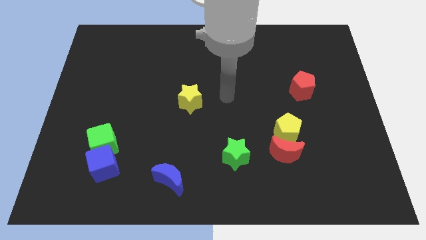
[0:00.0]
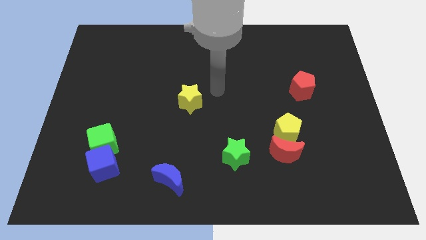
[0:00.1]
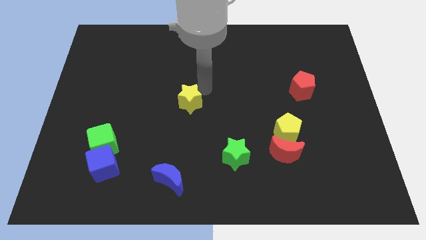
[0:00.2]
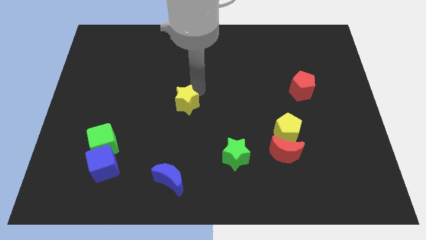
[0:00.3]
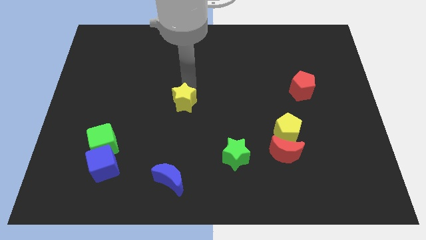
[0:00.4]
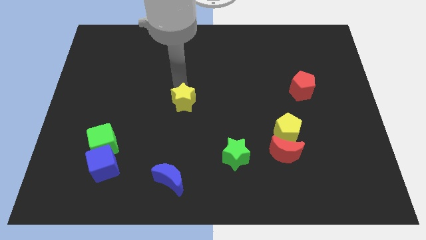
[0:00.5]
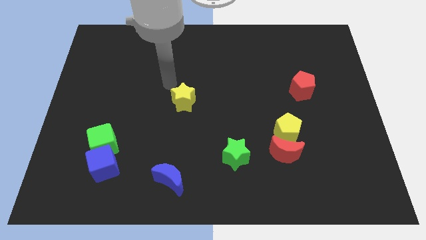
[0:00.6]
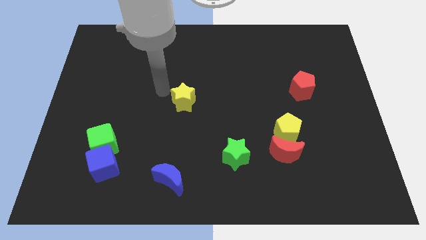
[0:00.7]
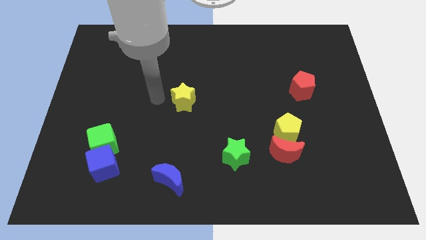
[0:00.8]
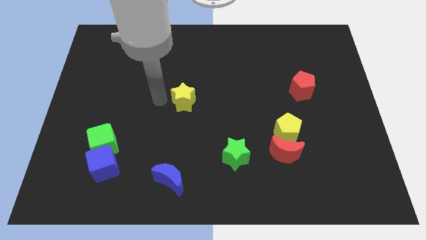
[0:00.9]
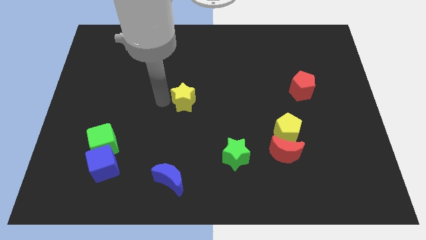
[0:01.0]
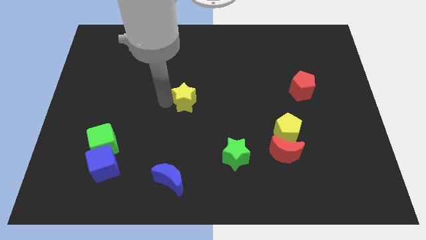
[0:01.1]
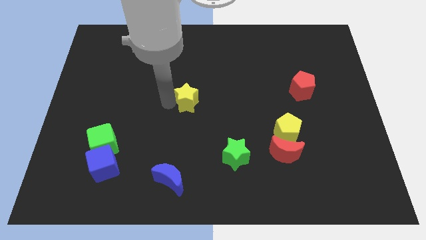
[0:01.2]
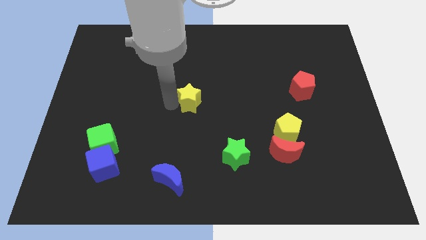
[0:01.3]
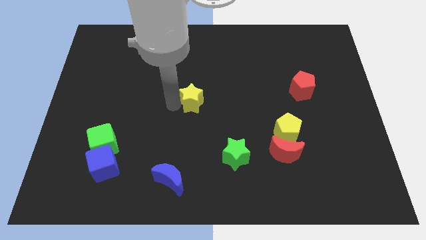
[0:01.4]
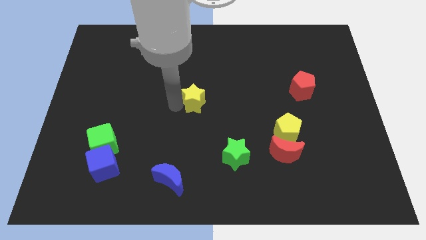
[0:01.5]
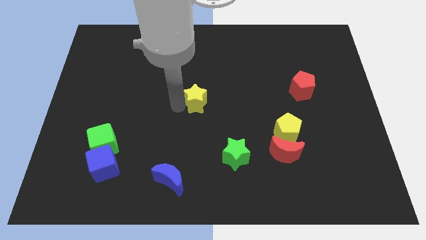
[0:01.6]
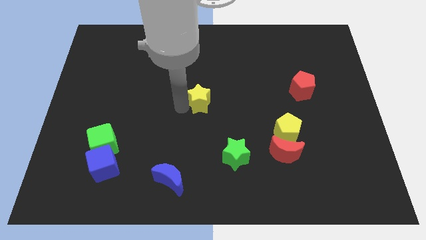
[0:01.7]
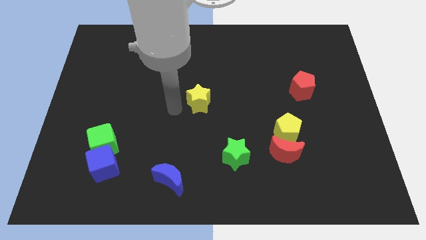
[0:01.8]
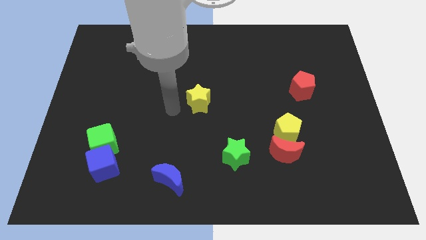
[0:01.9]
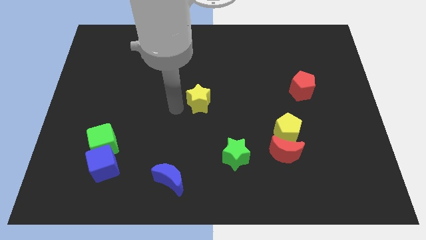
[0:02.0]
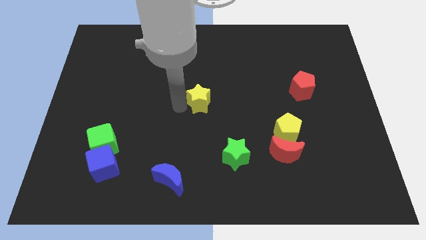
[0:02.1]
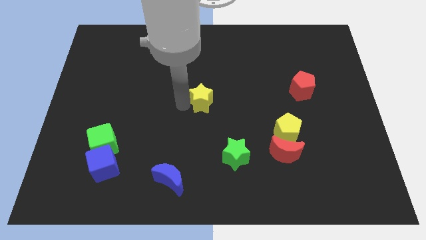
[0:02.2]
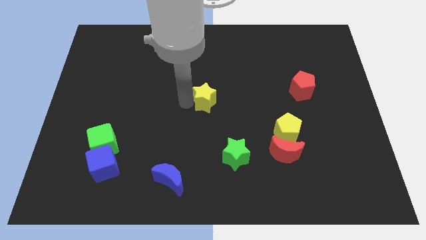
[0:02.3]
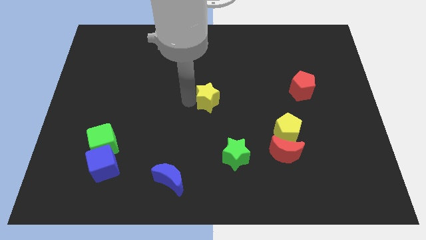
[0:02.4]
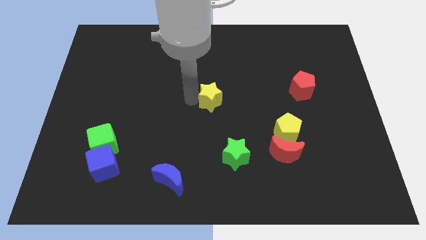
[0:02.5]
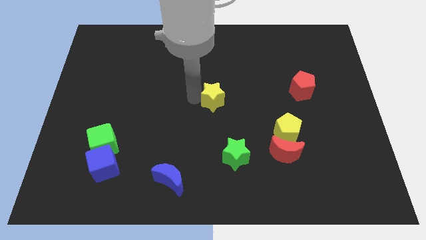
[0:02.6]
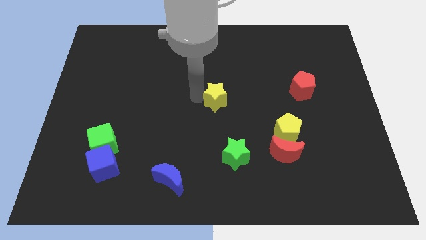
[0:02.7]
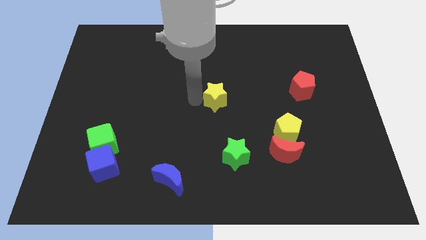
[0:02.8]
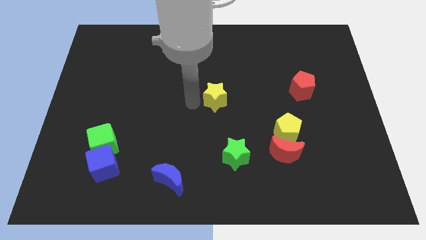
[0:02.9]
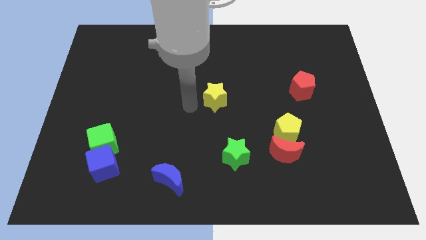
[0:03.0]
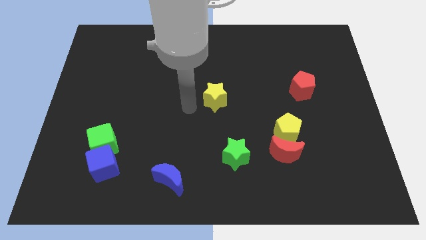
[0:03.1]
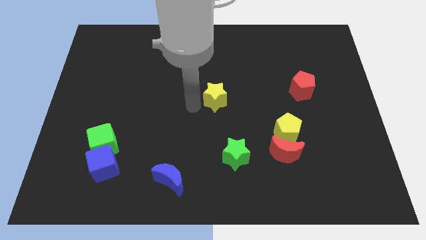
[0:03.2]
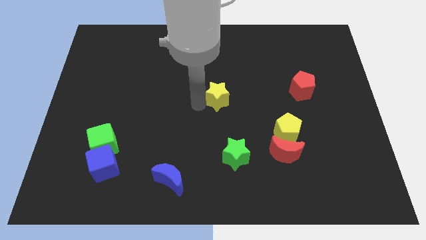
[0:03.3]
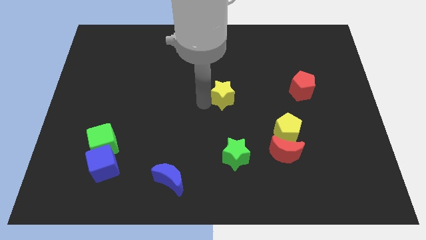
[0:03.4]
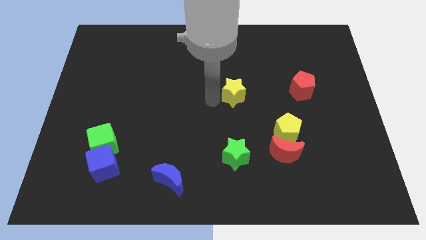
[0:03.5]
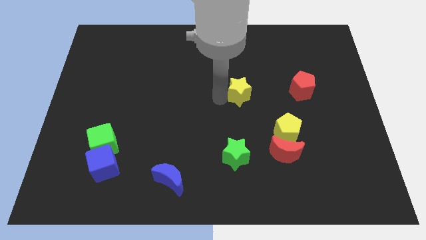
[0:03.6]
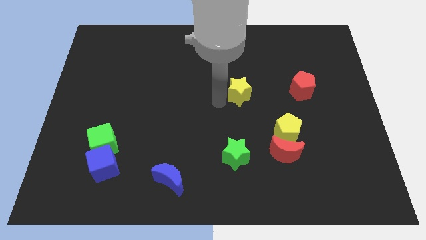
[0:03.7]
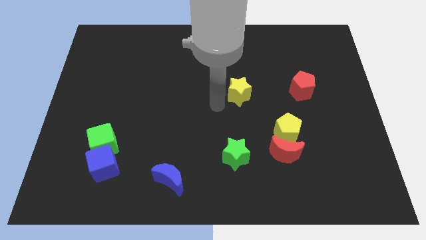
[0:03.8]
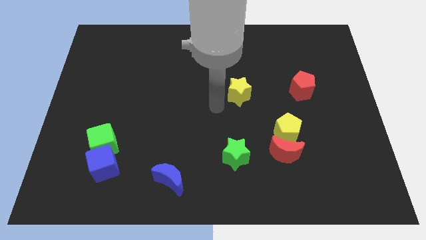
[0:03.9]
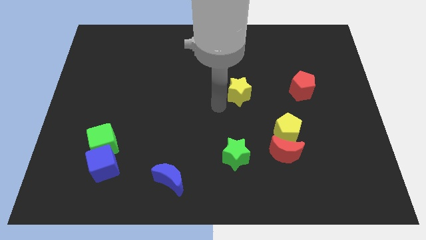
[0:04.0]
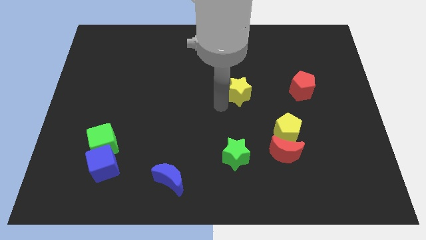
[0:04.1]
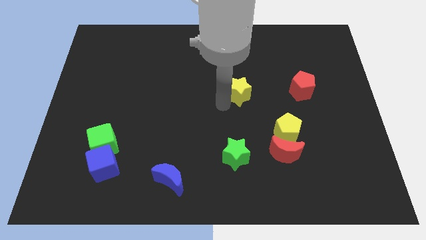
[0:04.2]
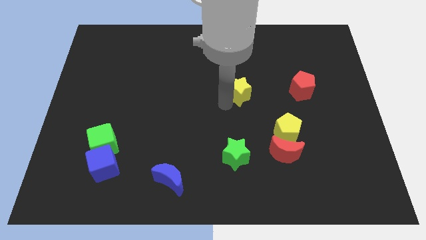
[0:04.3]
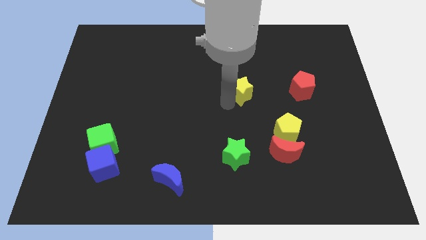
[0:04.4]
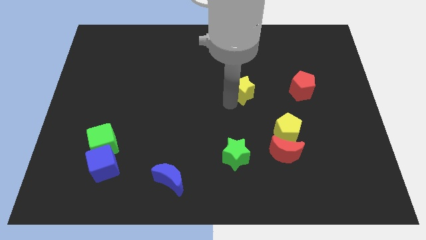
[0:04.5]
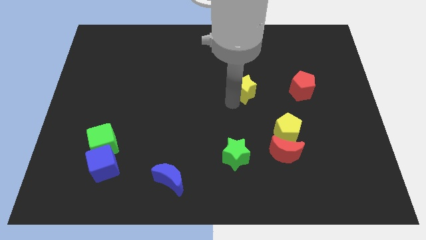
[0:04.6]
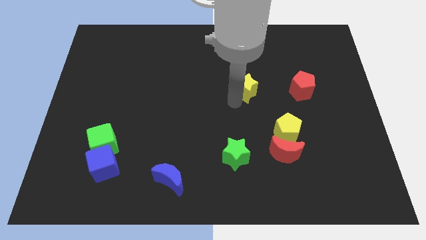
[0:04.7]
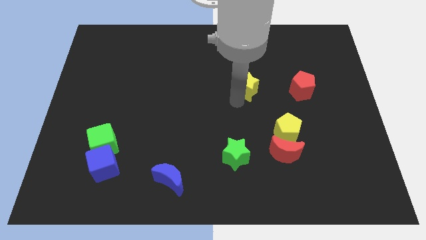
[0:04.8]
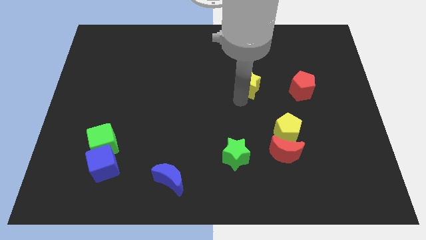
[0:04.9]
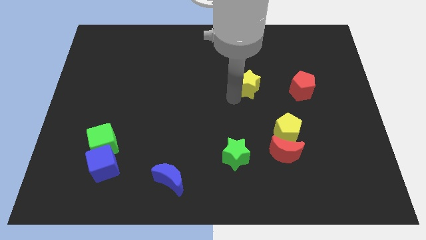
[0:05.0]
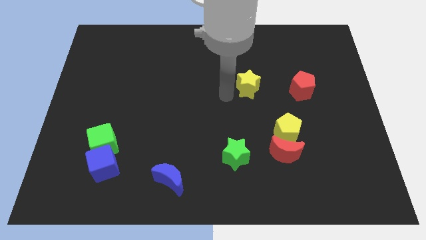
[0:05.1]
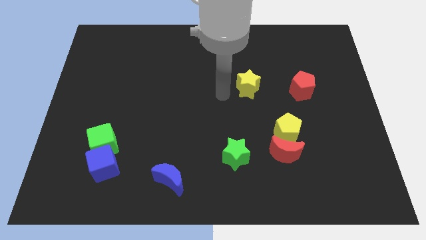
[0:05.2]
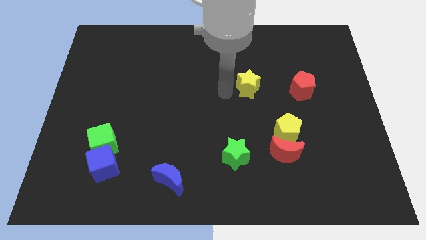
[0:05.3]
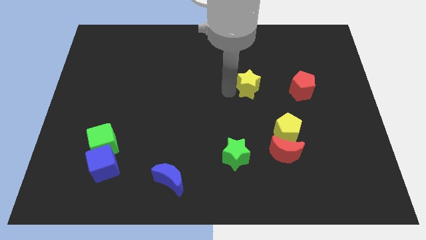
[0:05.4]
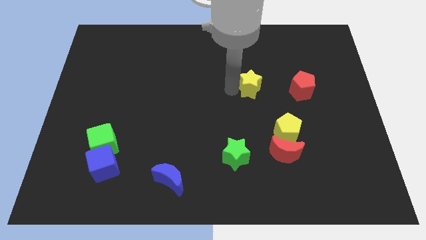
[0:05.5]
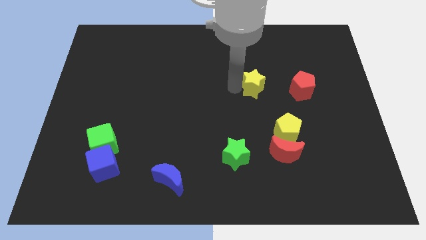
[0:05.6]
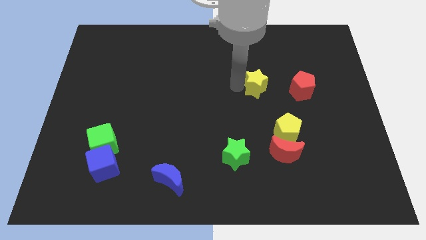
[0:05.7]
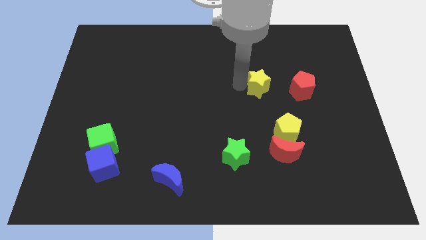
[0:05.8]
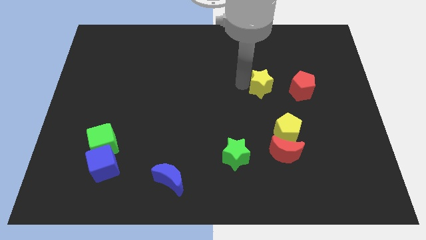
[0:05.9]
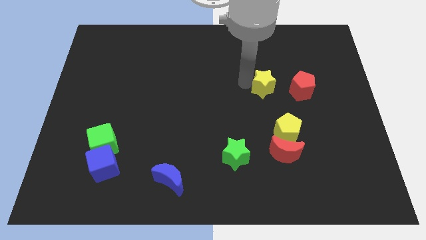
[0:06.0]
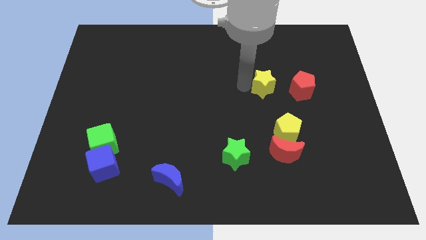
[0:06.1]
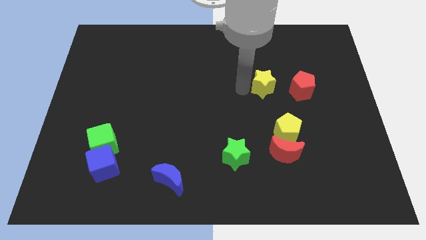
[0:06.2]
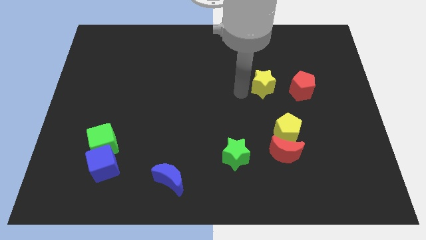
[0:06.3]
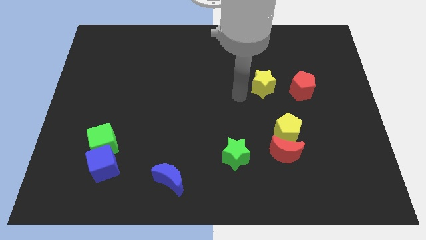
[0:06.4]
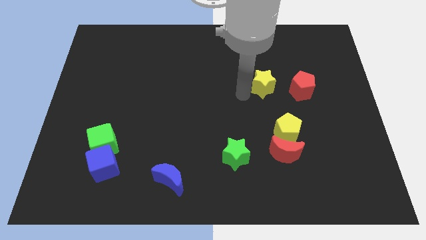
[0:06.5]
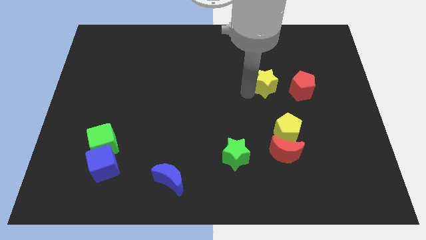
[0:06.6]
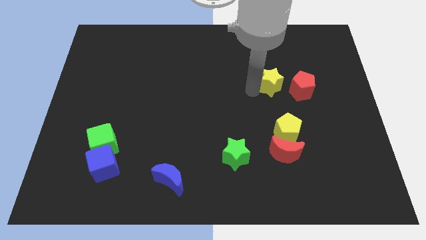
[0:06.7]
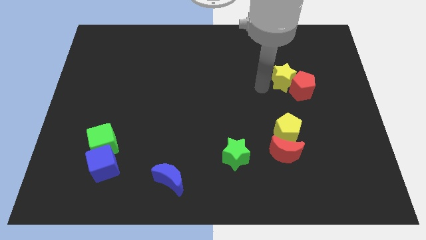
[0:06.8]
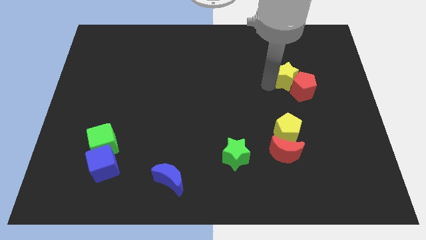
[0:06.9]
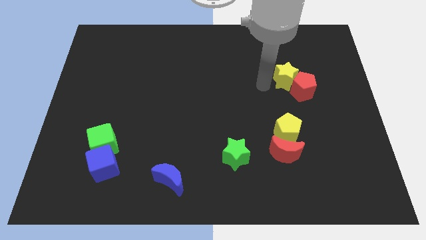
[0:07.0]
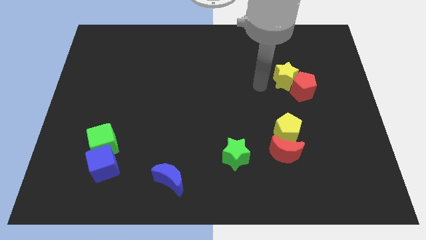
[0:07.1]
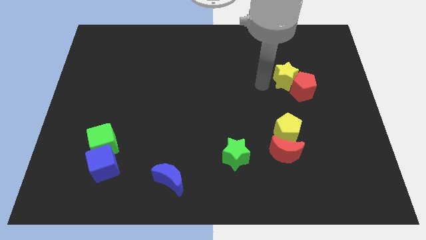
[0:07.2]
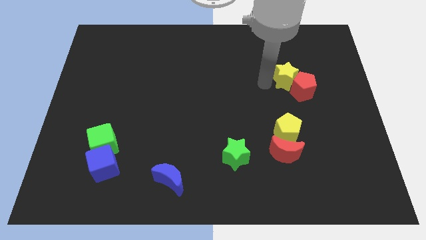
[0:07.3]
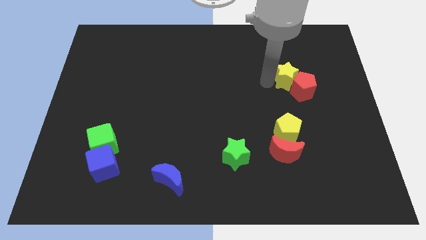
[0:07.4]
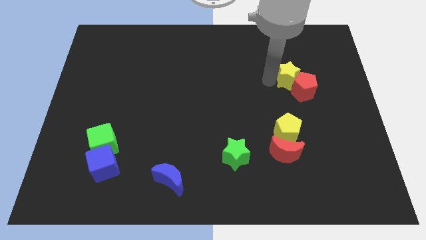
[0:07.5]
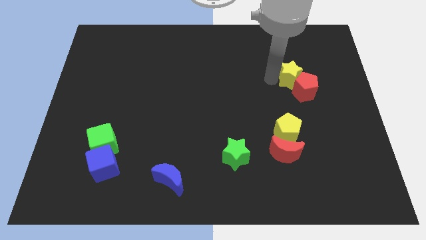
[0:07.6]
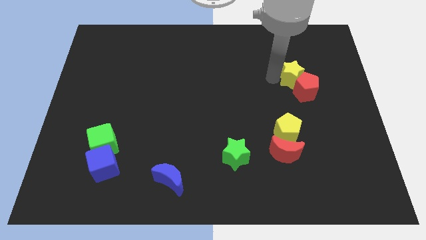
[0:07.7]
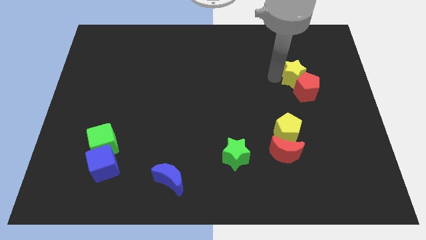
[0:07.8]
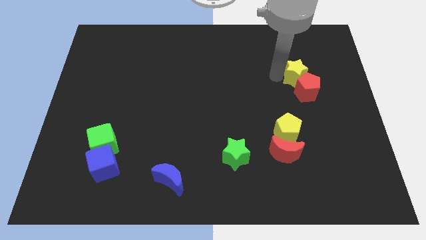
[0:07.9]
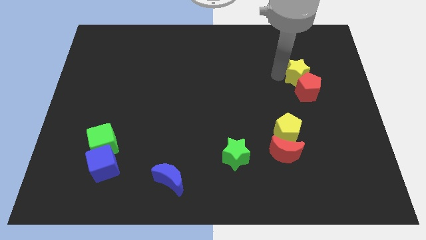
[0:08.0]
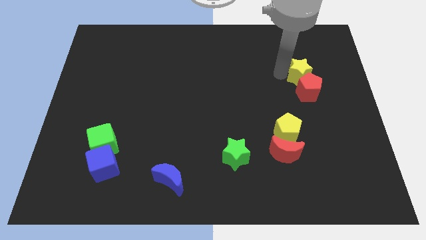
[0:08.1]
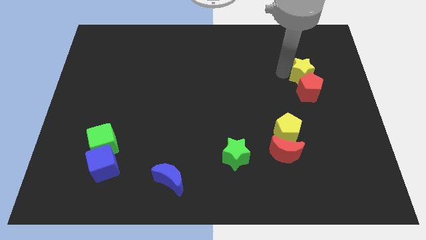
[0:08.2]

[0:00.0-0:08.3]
move the yellow star to the top right of the red pentagon
